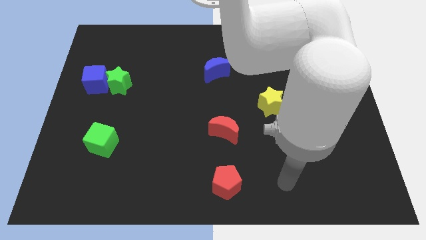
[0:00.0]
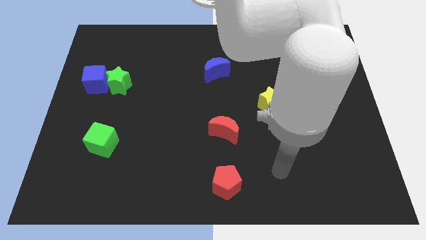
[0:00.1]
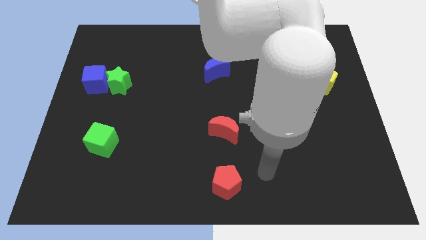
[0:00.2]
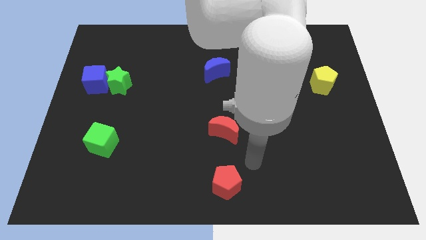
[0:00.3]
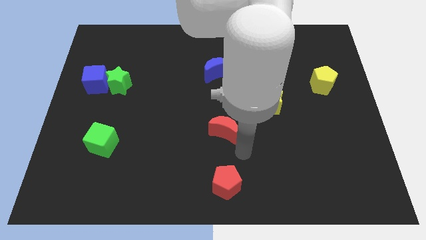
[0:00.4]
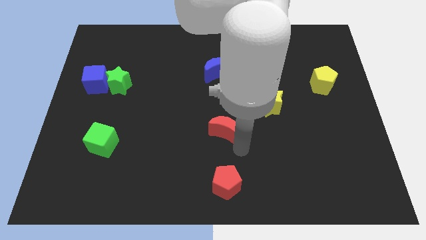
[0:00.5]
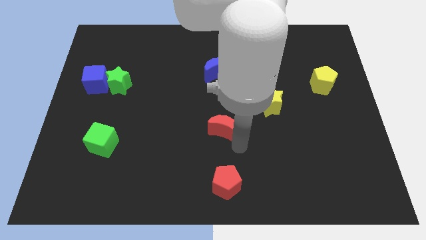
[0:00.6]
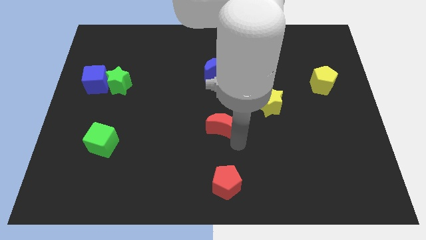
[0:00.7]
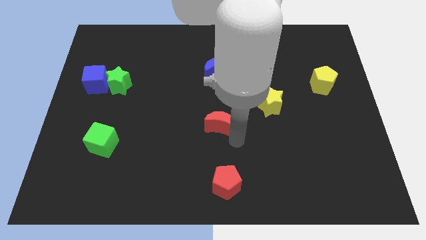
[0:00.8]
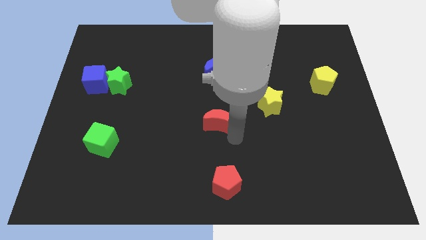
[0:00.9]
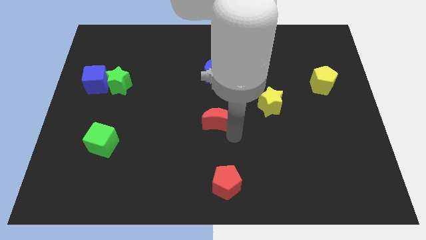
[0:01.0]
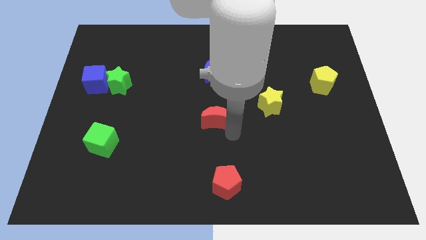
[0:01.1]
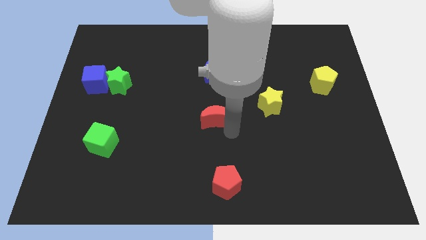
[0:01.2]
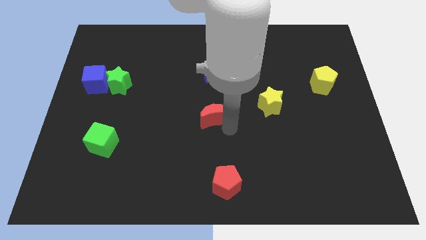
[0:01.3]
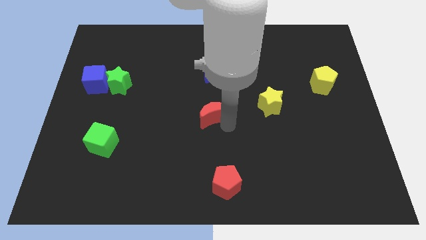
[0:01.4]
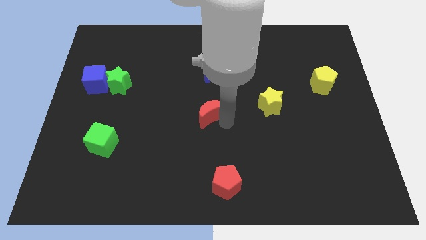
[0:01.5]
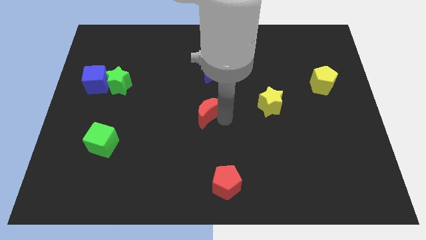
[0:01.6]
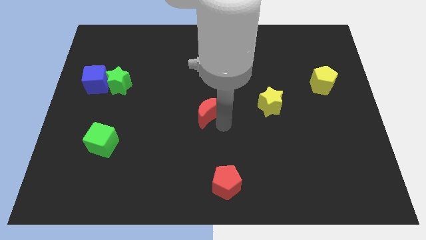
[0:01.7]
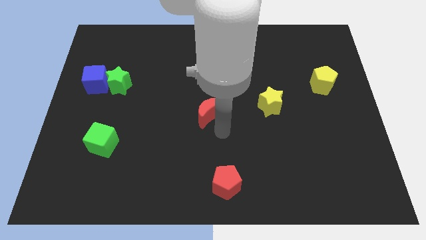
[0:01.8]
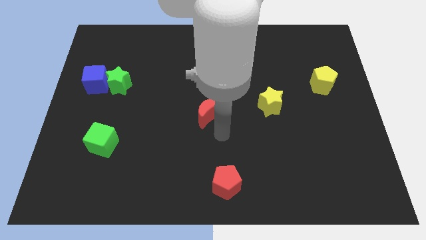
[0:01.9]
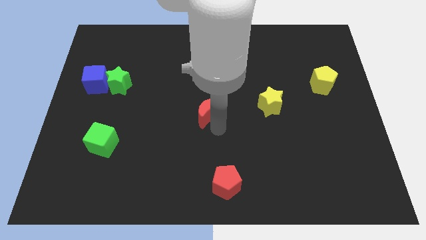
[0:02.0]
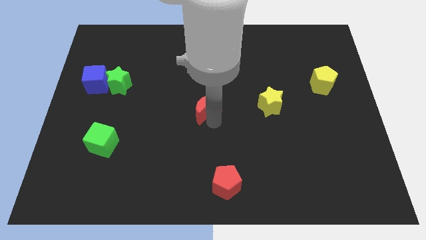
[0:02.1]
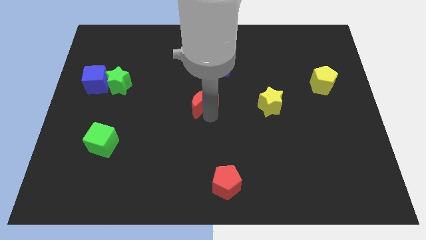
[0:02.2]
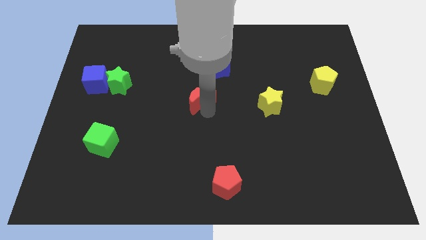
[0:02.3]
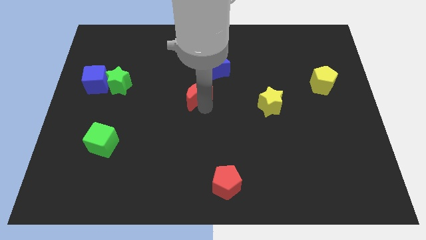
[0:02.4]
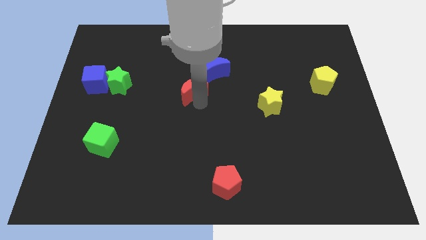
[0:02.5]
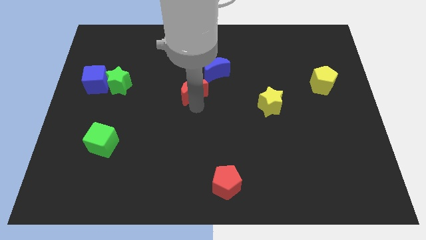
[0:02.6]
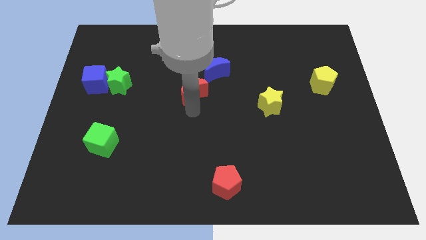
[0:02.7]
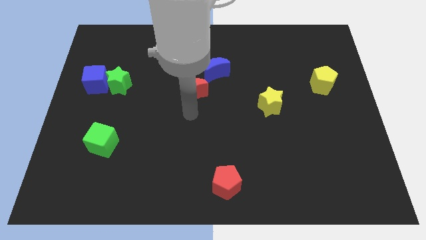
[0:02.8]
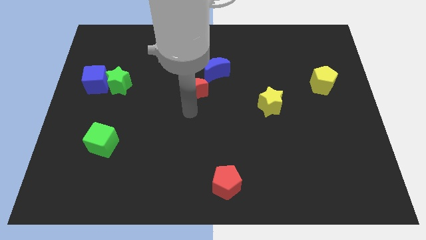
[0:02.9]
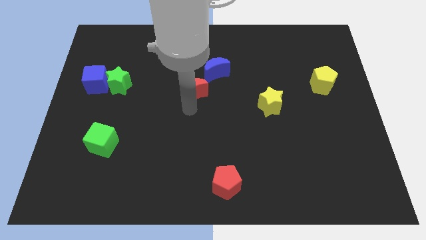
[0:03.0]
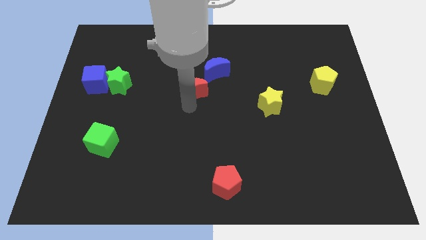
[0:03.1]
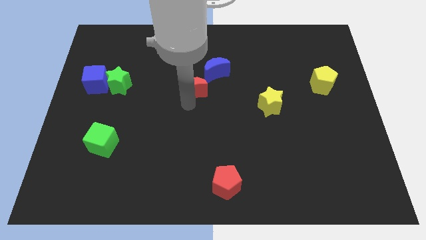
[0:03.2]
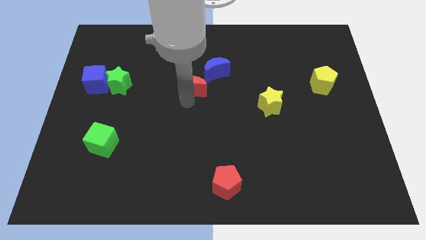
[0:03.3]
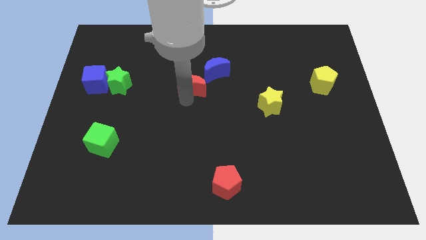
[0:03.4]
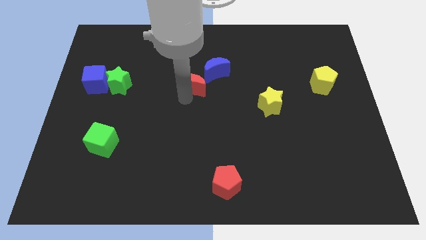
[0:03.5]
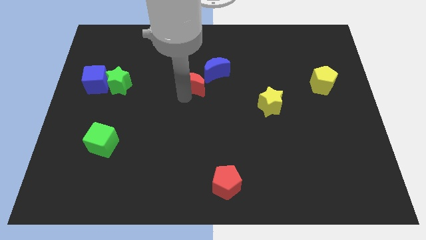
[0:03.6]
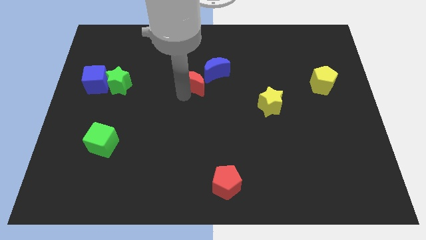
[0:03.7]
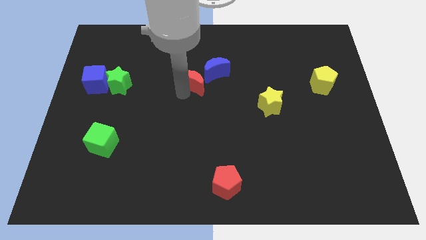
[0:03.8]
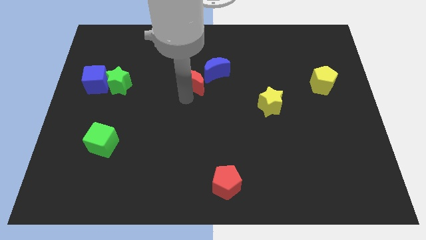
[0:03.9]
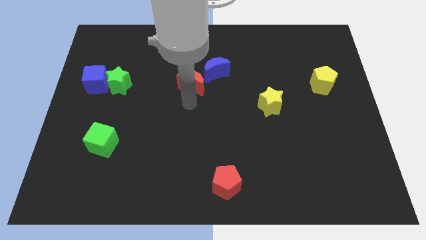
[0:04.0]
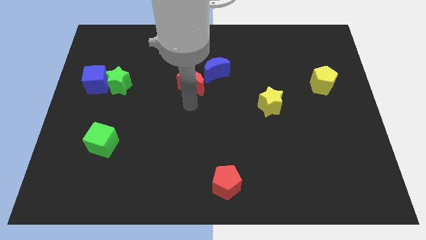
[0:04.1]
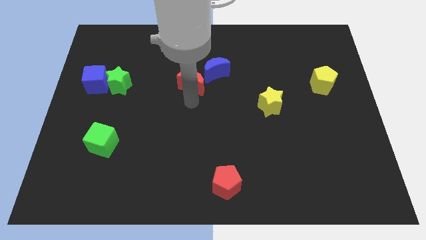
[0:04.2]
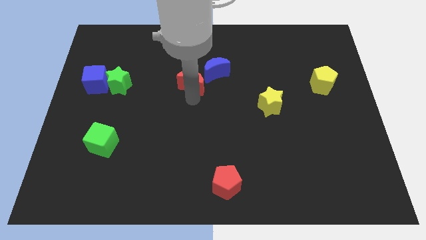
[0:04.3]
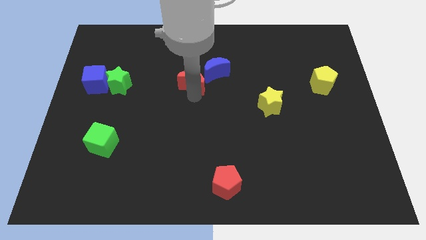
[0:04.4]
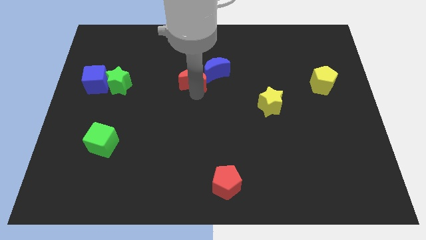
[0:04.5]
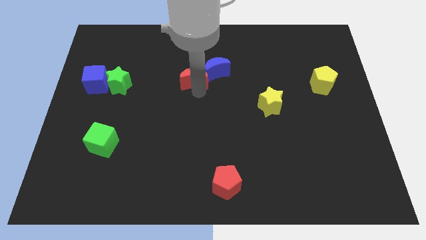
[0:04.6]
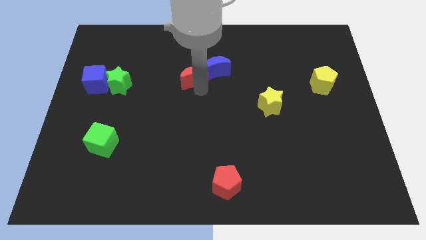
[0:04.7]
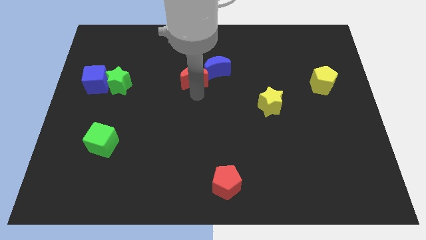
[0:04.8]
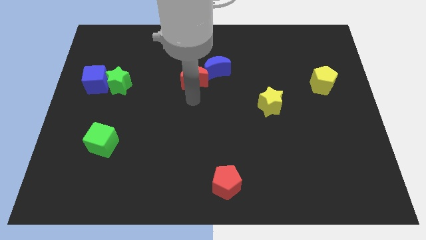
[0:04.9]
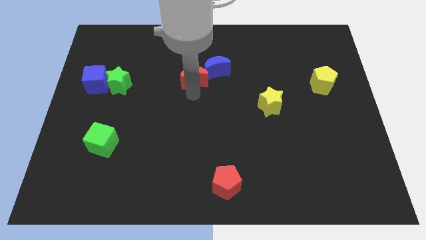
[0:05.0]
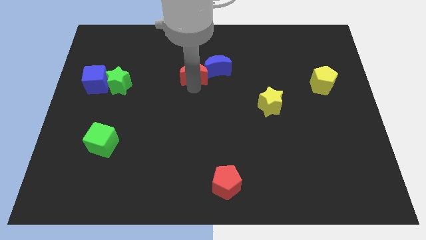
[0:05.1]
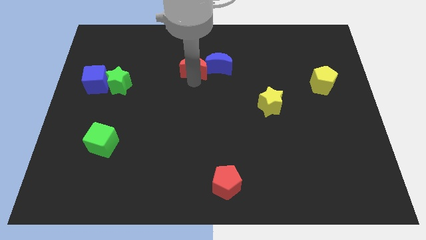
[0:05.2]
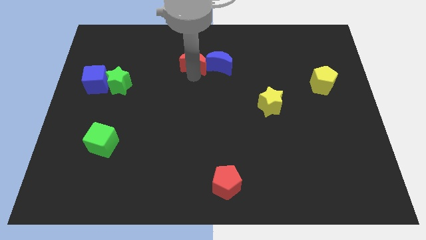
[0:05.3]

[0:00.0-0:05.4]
push the red moon to the top left of the blue moon

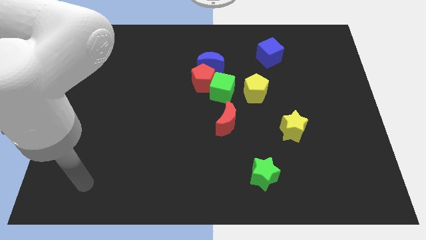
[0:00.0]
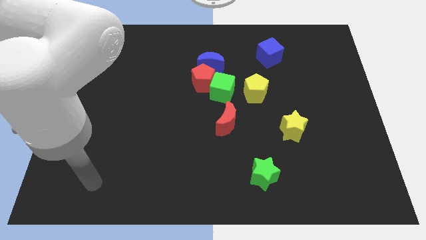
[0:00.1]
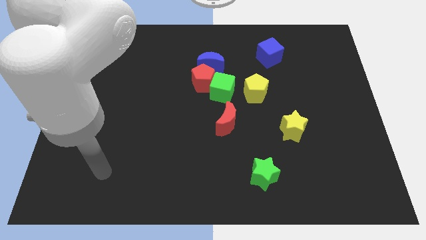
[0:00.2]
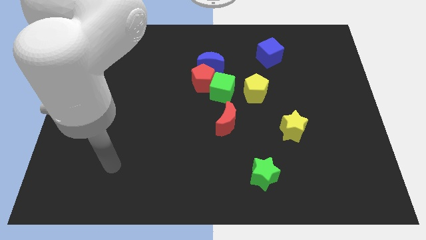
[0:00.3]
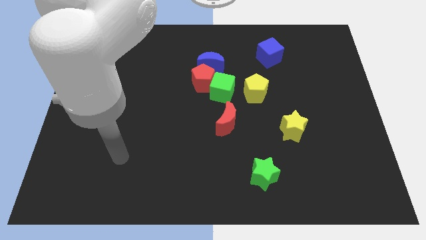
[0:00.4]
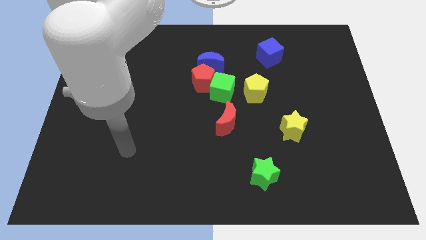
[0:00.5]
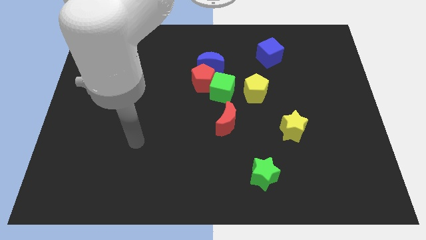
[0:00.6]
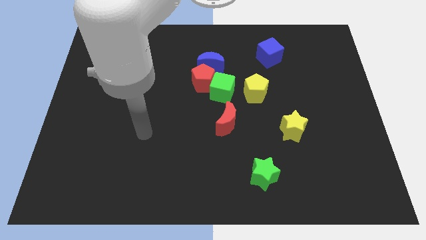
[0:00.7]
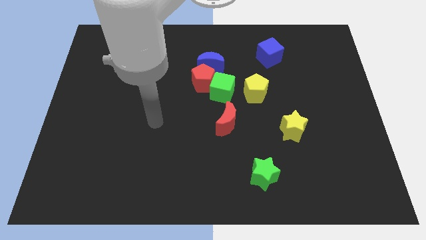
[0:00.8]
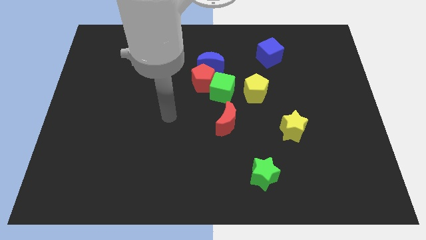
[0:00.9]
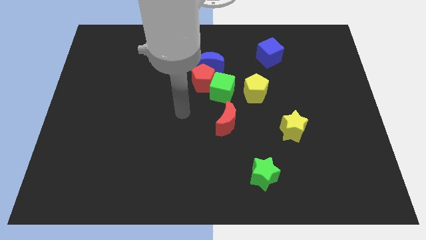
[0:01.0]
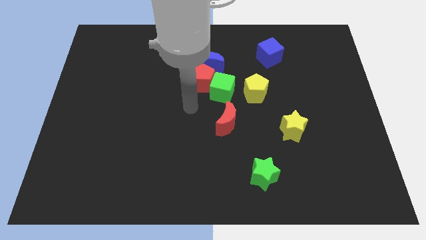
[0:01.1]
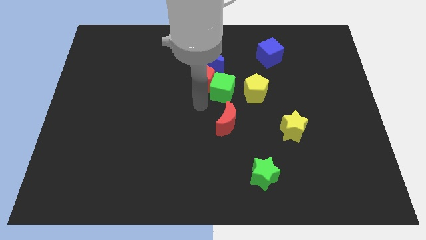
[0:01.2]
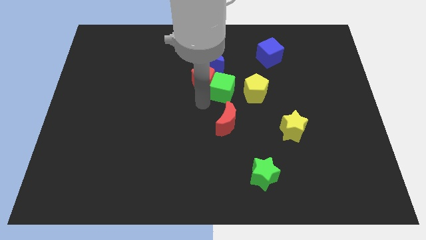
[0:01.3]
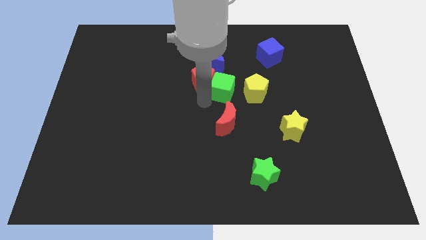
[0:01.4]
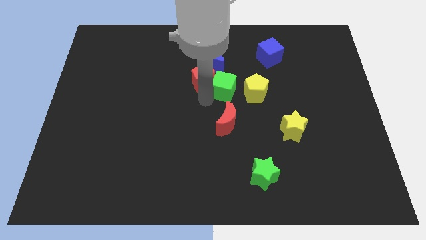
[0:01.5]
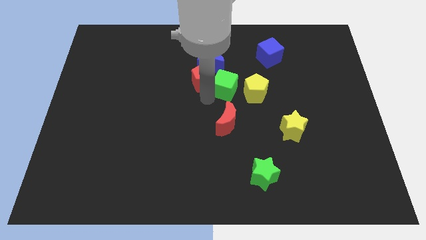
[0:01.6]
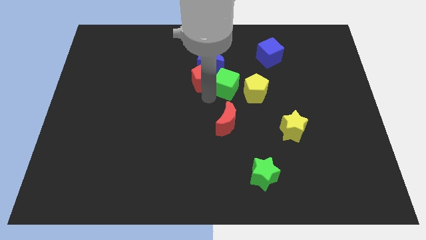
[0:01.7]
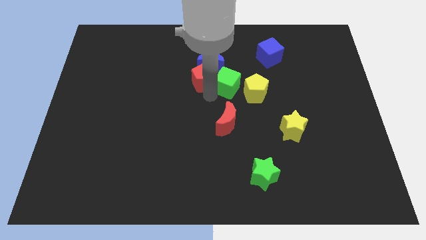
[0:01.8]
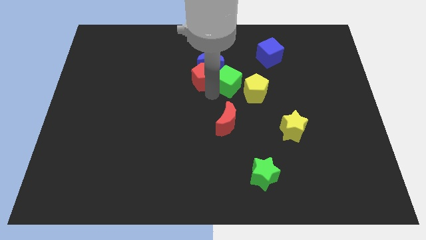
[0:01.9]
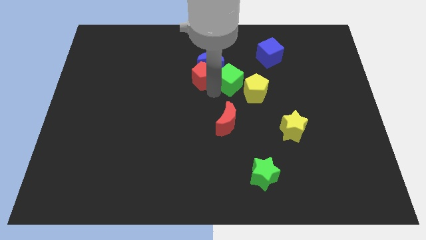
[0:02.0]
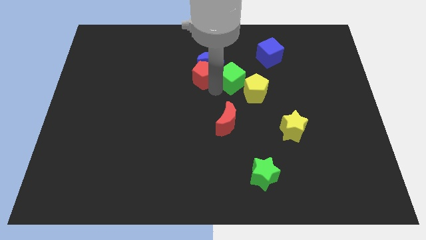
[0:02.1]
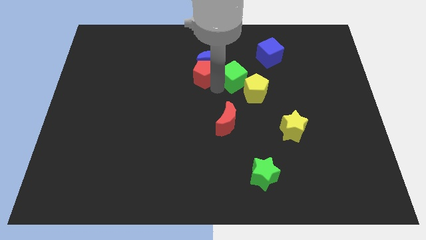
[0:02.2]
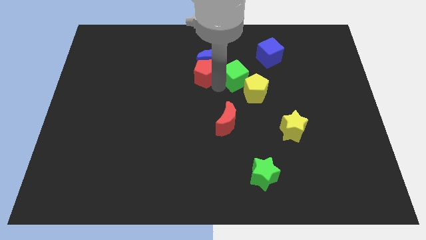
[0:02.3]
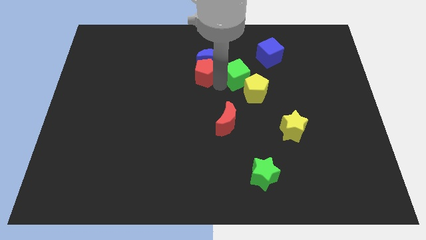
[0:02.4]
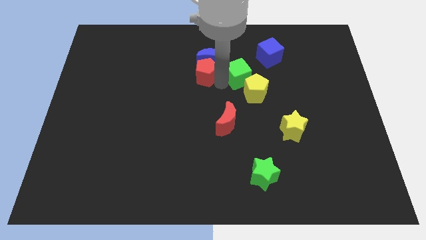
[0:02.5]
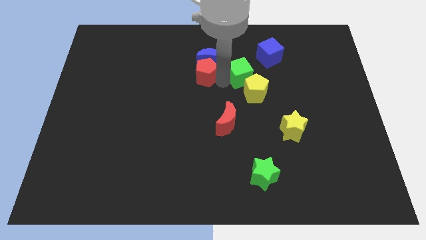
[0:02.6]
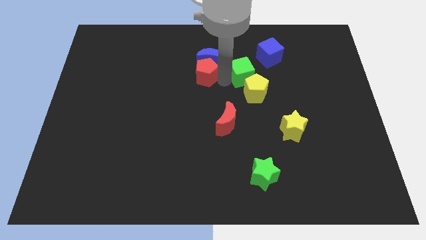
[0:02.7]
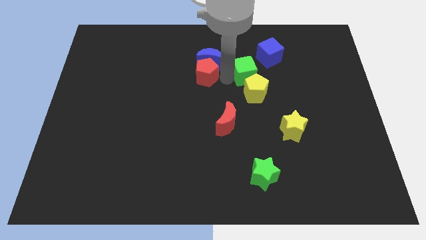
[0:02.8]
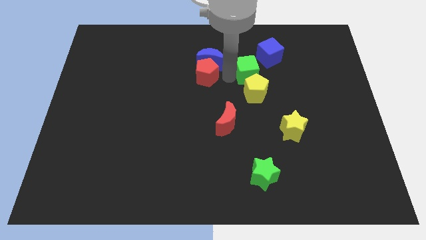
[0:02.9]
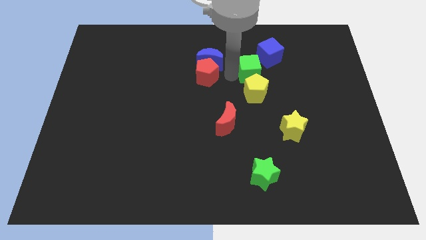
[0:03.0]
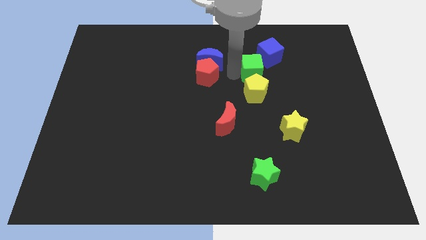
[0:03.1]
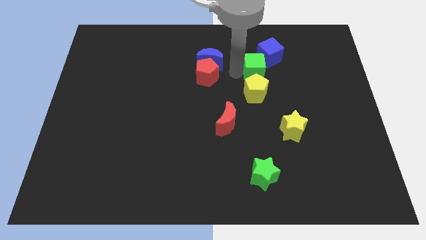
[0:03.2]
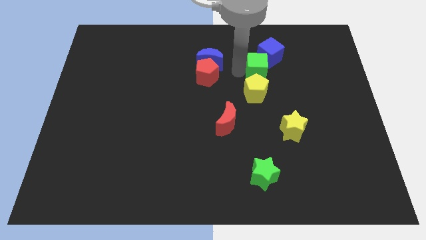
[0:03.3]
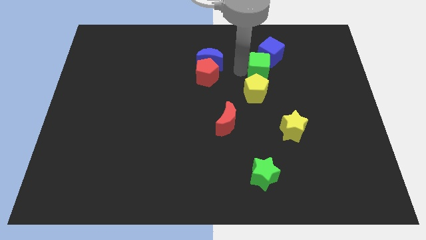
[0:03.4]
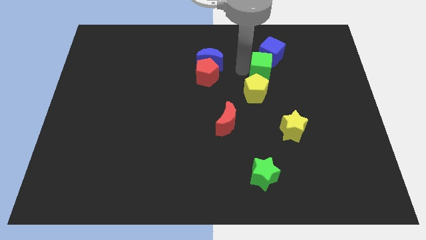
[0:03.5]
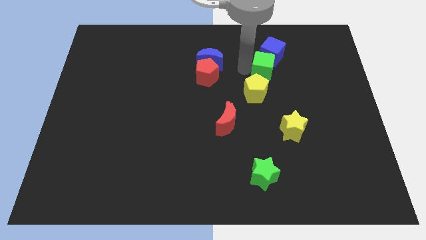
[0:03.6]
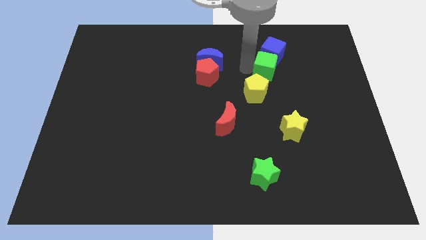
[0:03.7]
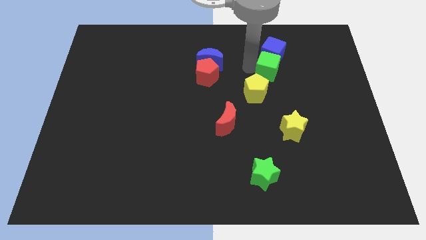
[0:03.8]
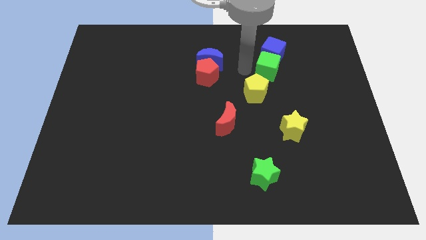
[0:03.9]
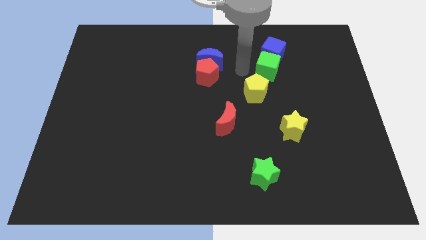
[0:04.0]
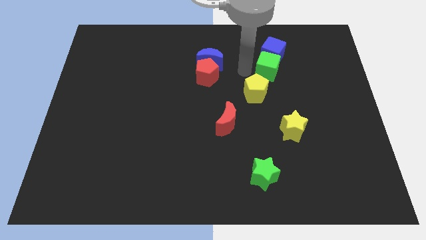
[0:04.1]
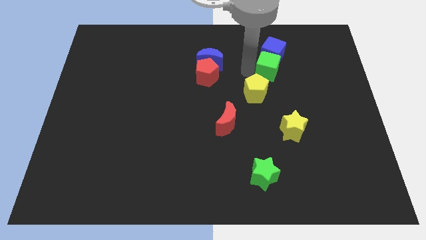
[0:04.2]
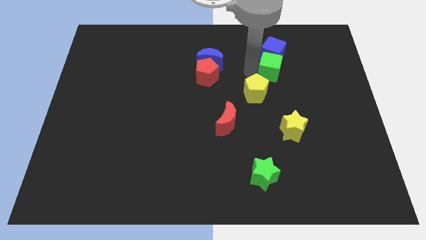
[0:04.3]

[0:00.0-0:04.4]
slide the green cube diagonally down and to the right of the blue cube
